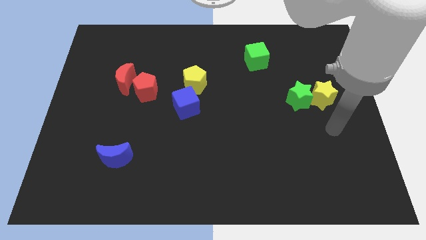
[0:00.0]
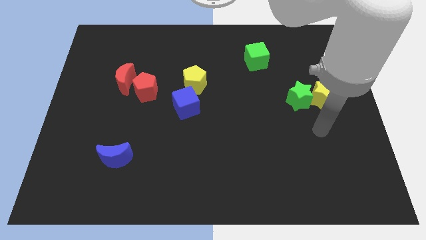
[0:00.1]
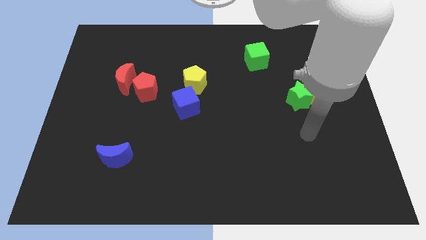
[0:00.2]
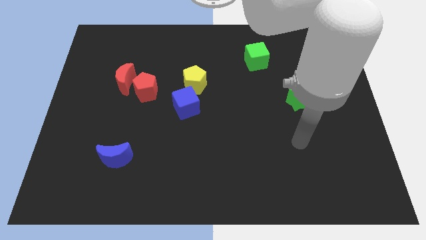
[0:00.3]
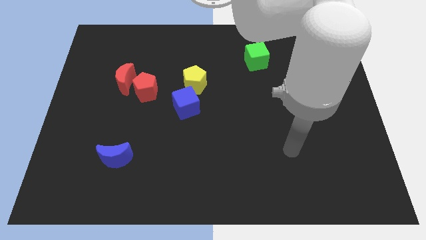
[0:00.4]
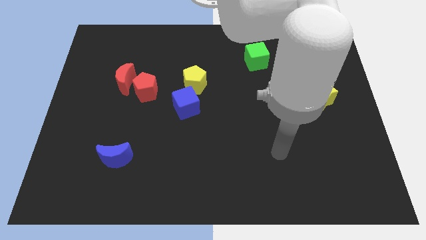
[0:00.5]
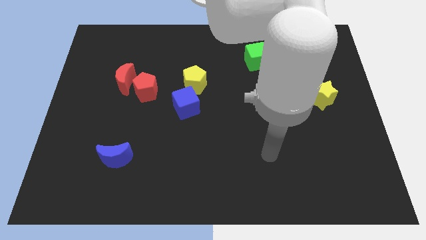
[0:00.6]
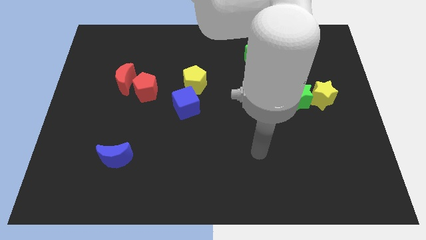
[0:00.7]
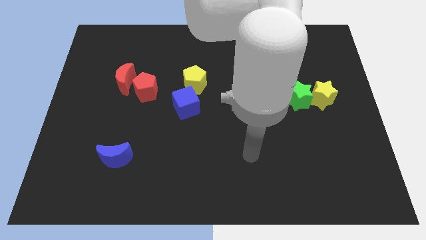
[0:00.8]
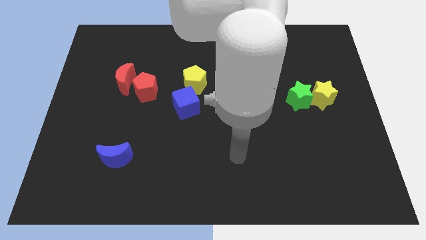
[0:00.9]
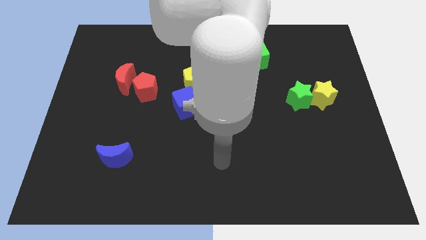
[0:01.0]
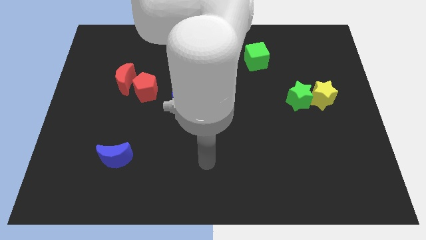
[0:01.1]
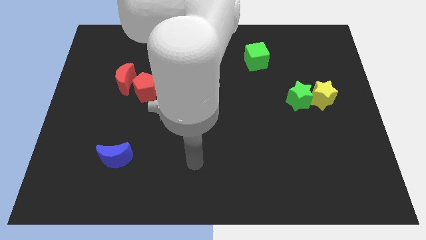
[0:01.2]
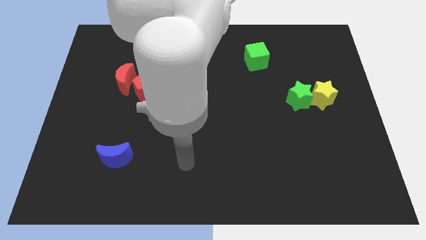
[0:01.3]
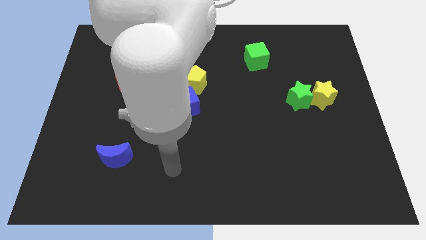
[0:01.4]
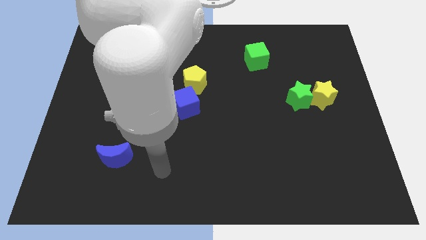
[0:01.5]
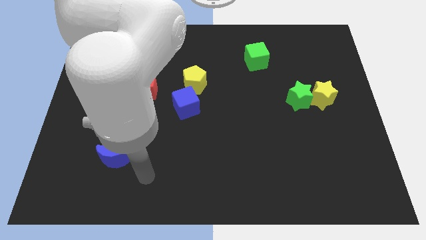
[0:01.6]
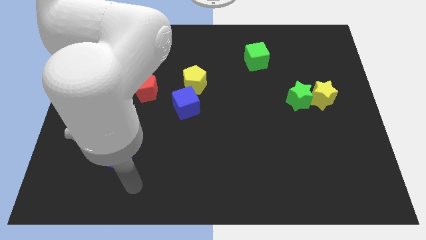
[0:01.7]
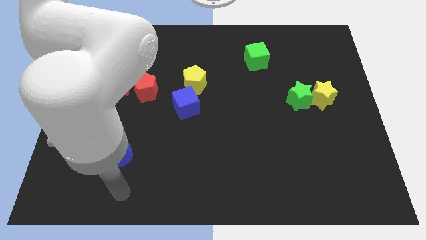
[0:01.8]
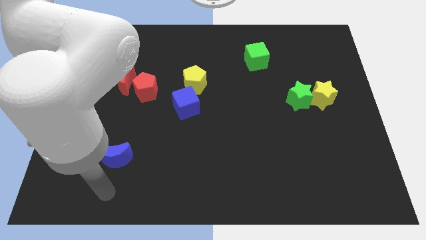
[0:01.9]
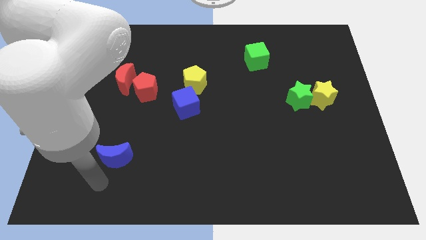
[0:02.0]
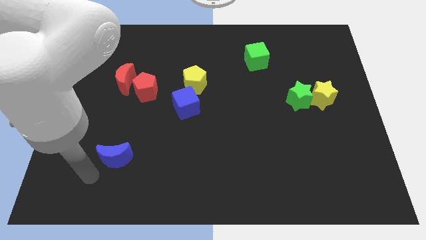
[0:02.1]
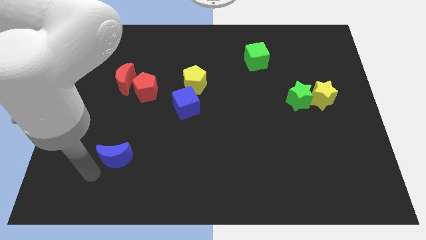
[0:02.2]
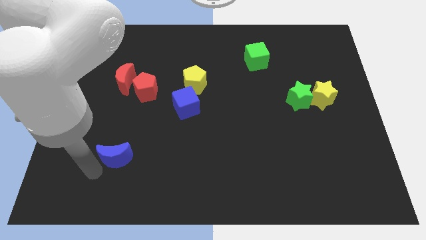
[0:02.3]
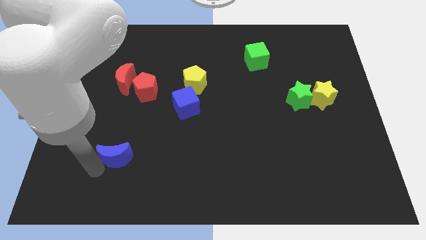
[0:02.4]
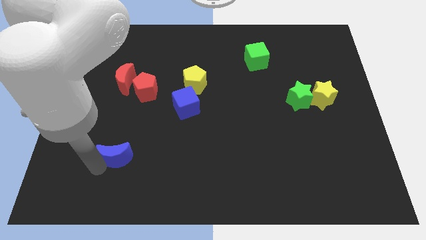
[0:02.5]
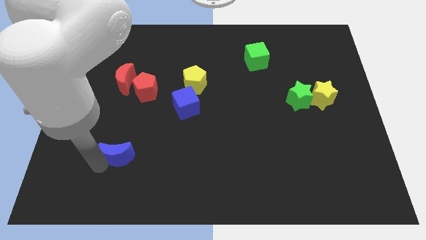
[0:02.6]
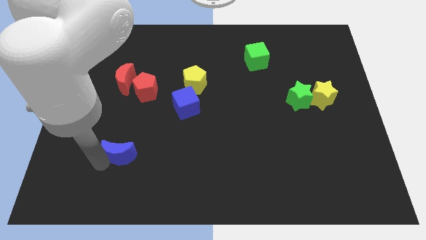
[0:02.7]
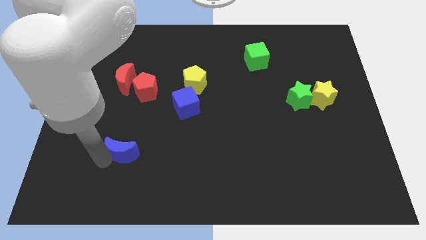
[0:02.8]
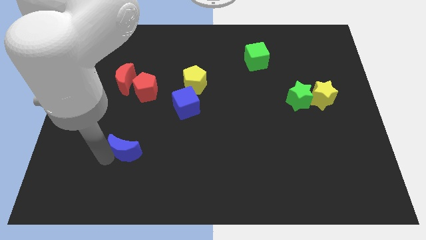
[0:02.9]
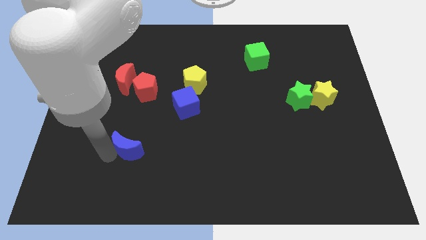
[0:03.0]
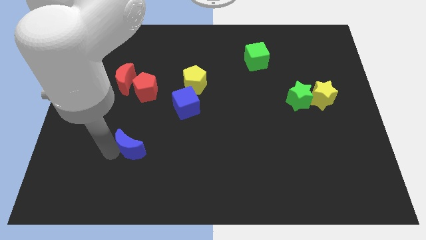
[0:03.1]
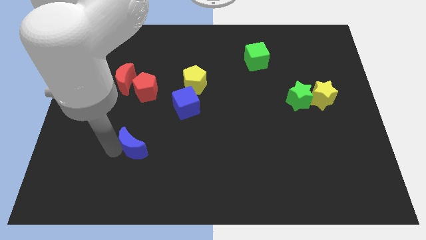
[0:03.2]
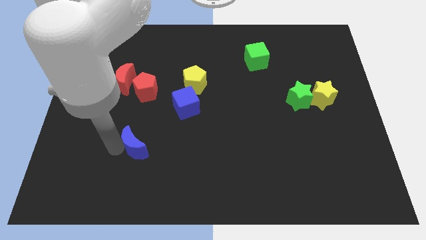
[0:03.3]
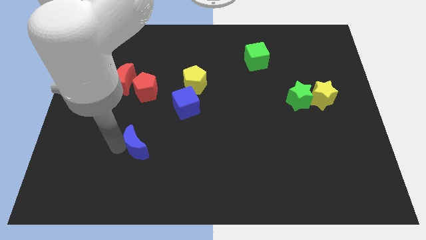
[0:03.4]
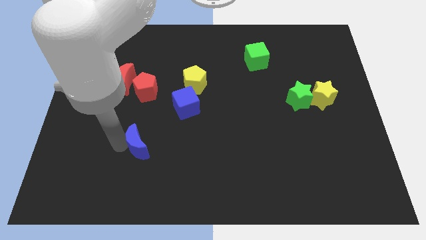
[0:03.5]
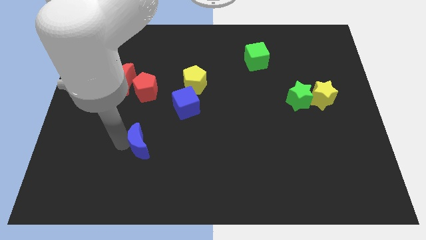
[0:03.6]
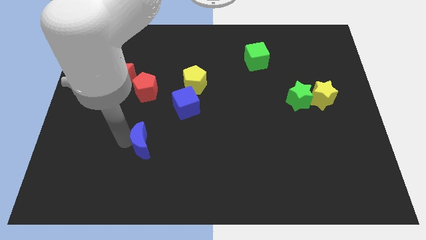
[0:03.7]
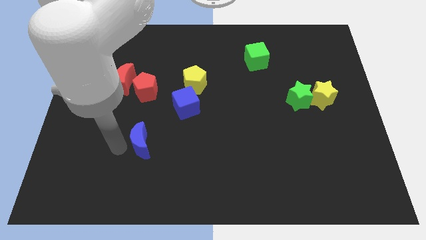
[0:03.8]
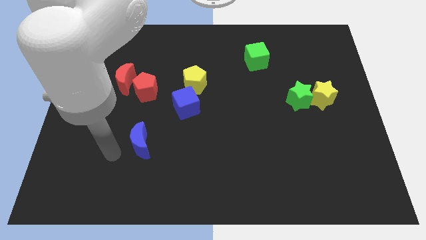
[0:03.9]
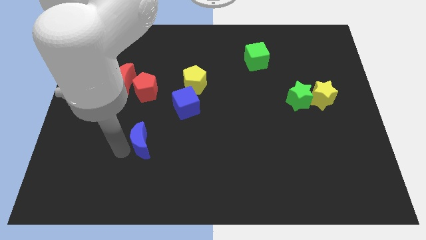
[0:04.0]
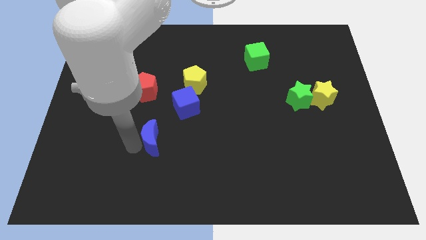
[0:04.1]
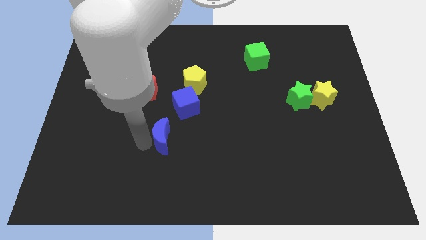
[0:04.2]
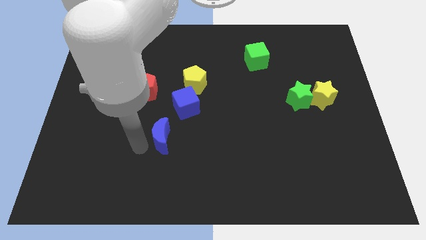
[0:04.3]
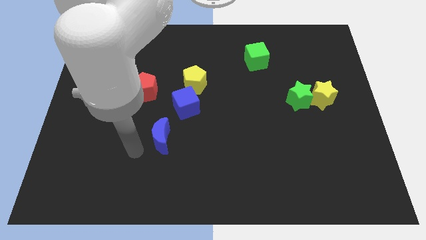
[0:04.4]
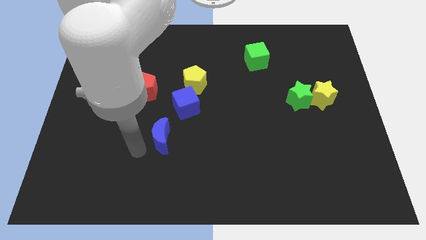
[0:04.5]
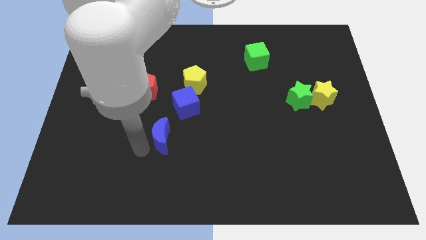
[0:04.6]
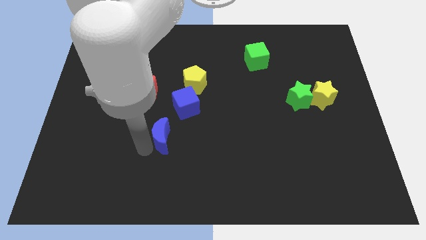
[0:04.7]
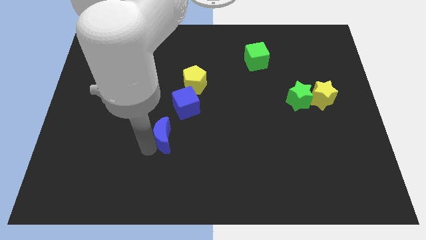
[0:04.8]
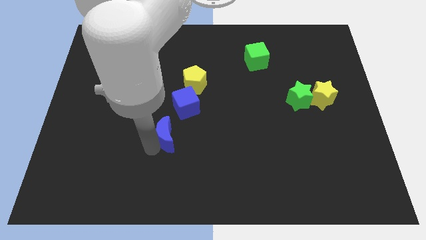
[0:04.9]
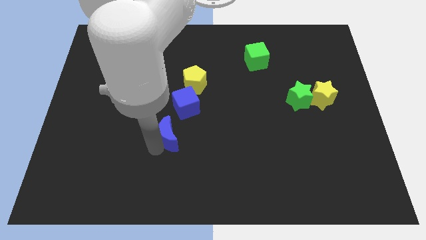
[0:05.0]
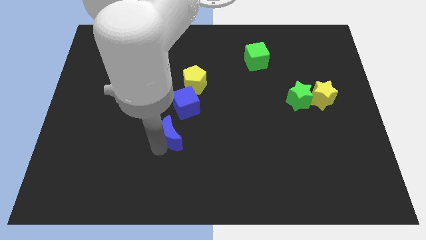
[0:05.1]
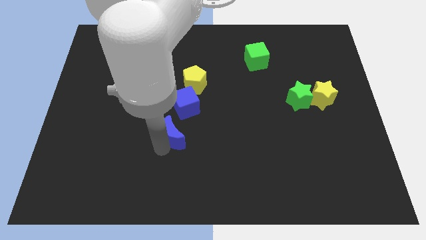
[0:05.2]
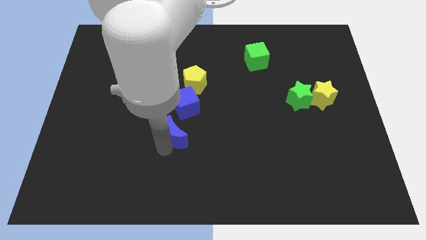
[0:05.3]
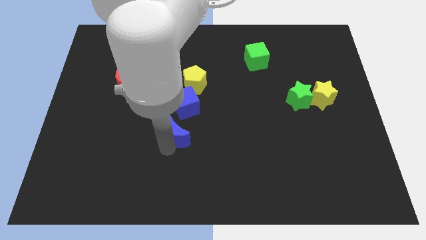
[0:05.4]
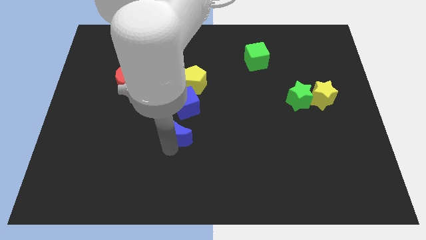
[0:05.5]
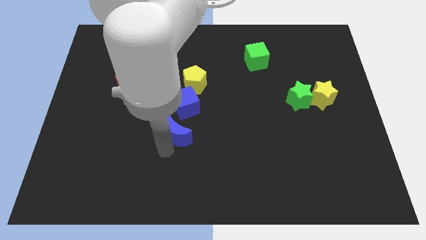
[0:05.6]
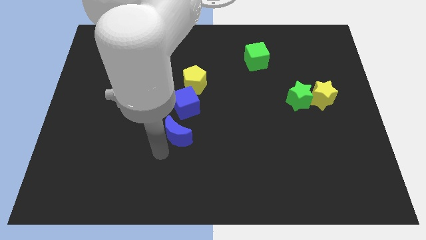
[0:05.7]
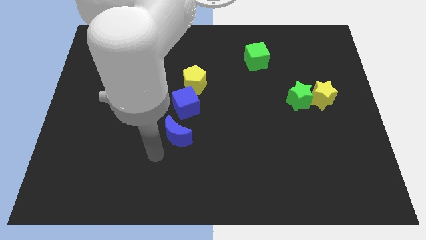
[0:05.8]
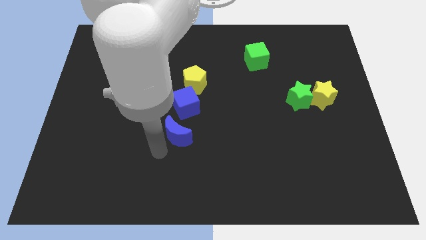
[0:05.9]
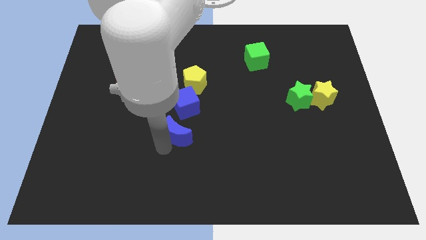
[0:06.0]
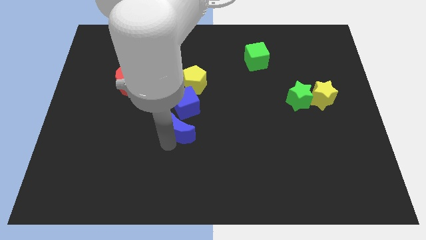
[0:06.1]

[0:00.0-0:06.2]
push the blue moon to the middle
